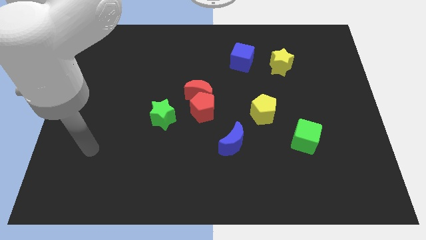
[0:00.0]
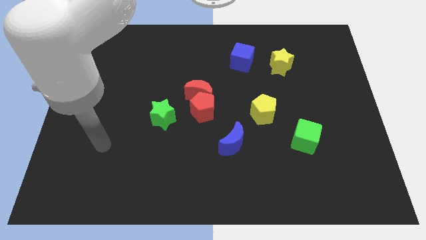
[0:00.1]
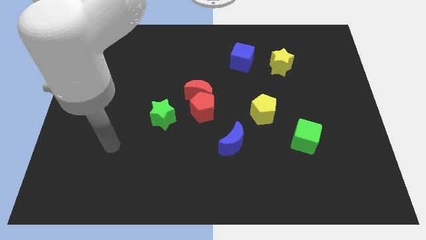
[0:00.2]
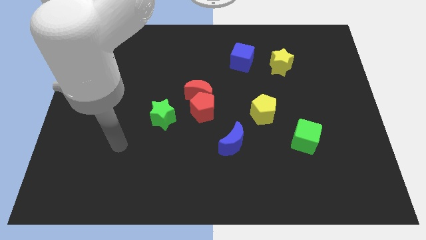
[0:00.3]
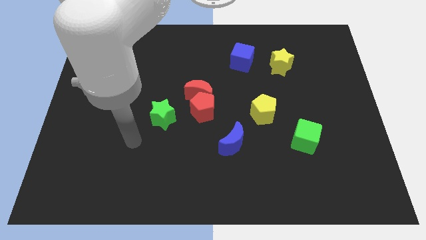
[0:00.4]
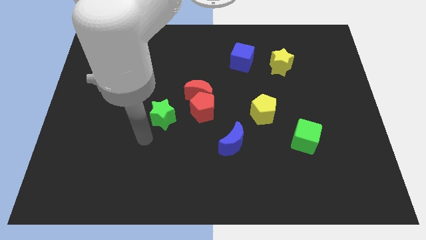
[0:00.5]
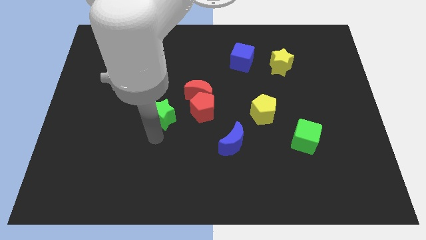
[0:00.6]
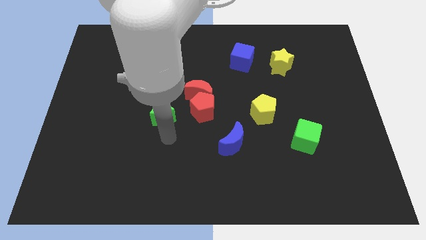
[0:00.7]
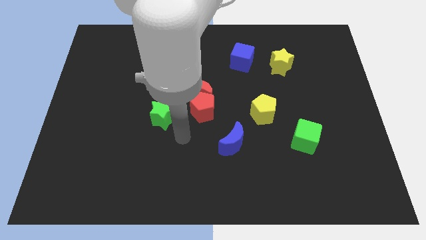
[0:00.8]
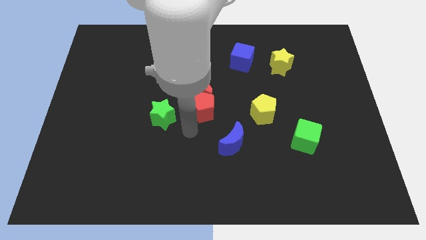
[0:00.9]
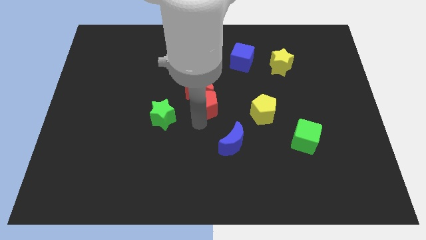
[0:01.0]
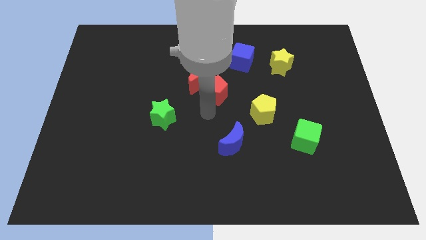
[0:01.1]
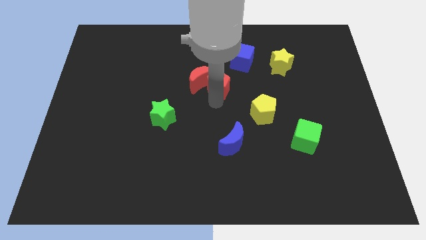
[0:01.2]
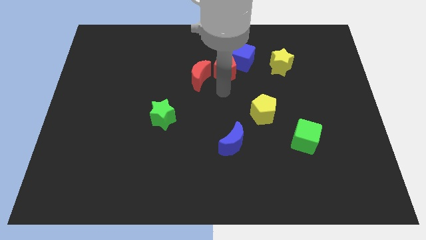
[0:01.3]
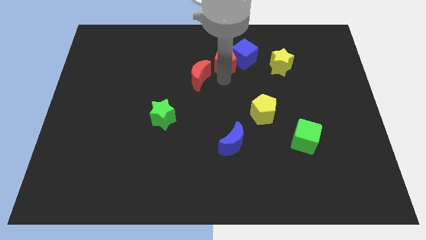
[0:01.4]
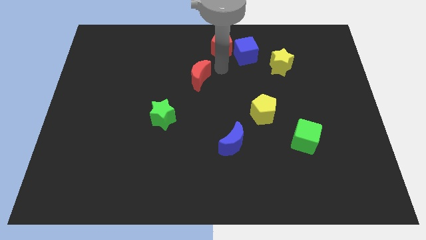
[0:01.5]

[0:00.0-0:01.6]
move the red moon away from the red pentagon

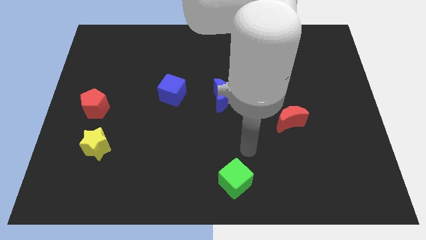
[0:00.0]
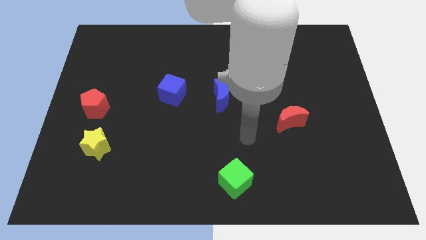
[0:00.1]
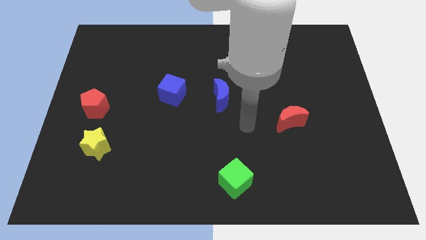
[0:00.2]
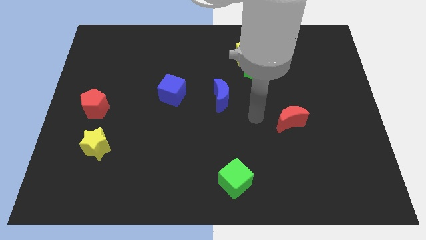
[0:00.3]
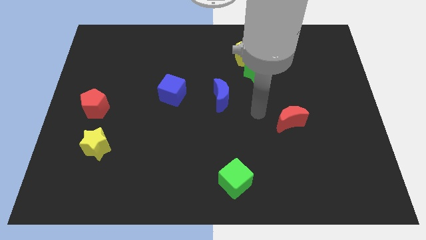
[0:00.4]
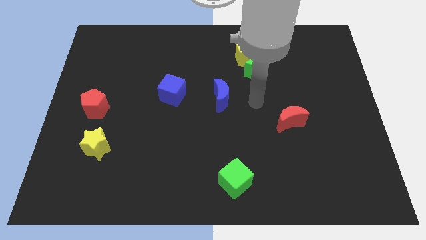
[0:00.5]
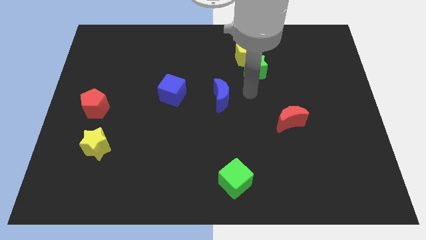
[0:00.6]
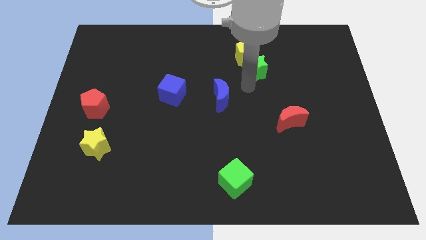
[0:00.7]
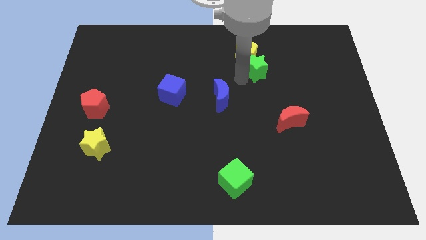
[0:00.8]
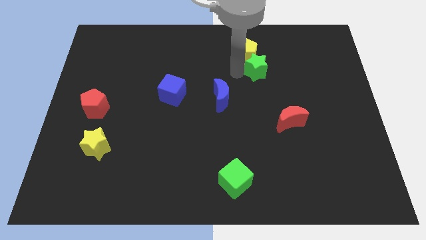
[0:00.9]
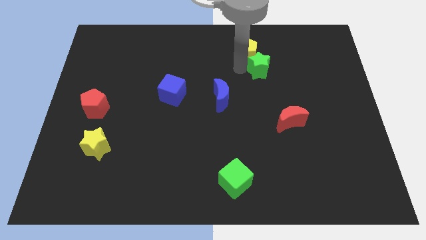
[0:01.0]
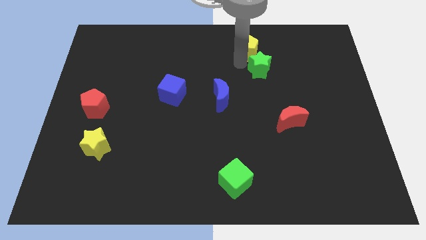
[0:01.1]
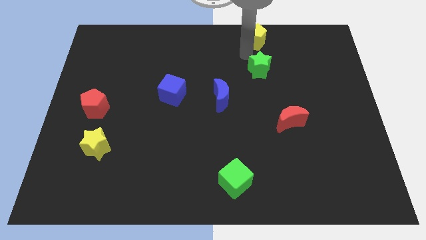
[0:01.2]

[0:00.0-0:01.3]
pull the green star apart from the yellow pentagon

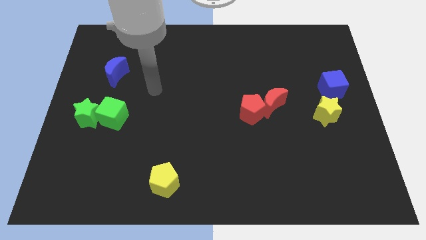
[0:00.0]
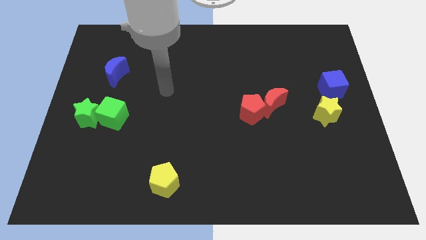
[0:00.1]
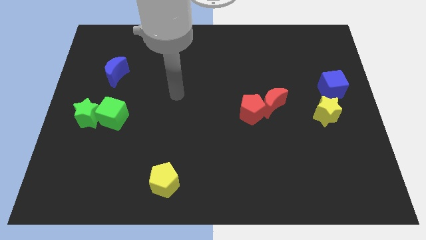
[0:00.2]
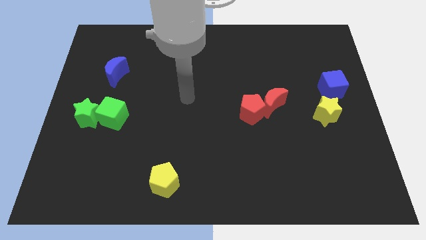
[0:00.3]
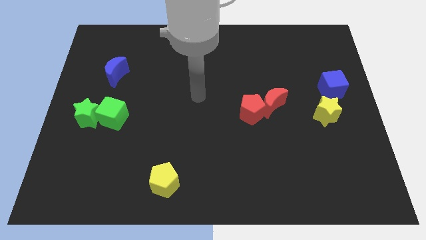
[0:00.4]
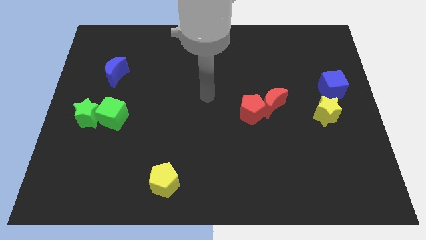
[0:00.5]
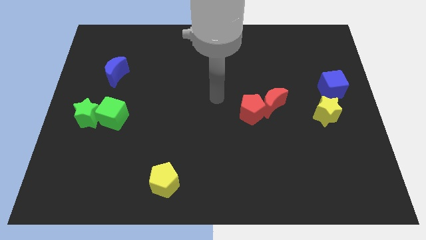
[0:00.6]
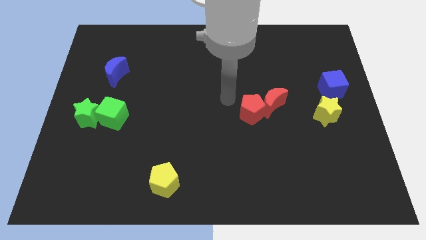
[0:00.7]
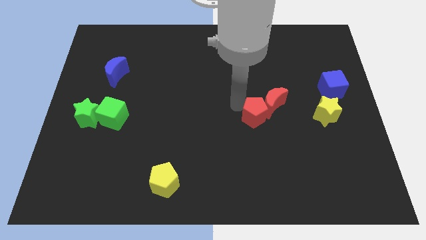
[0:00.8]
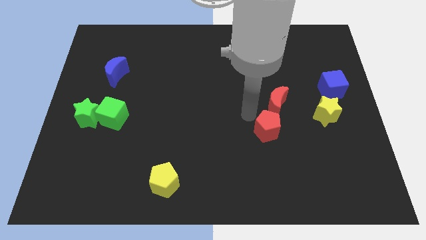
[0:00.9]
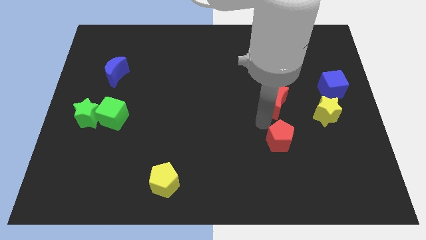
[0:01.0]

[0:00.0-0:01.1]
pull the red moon apart from the red pentagon

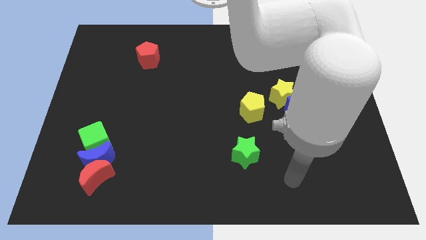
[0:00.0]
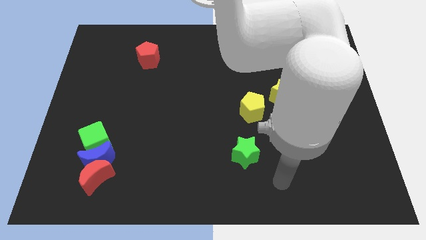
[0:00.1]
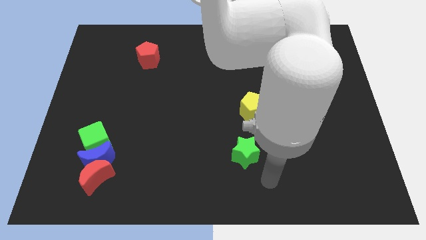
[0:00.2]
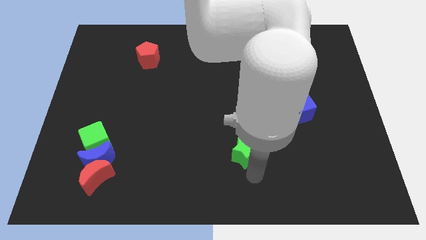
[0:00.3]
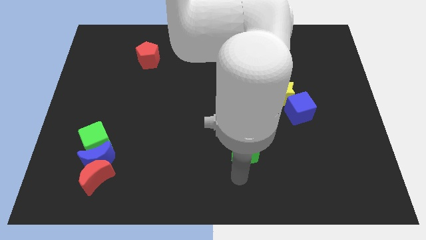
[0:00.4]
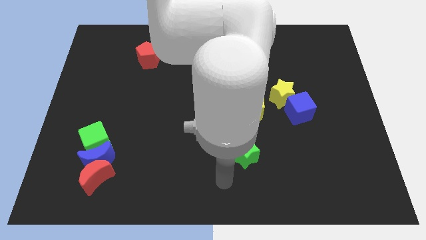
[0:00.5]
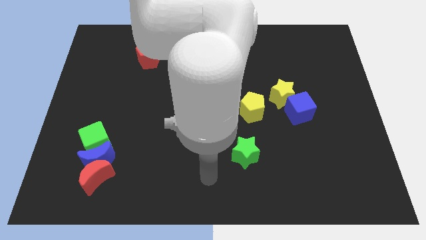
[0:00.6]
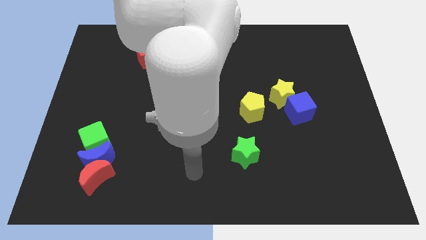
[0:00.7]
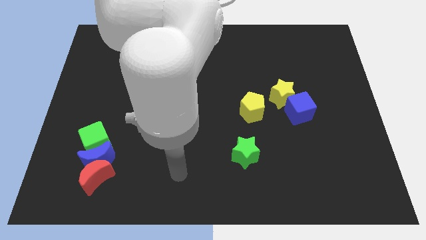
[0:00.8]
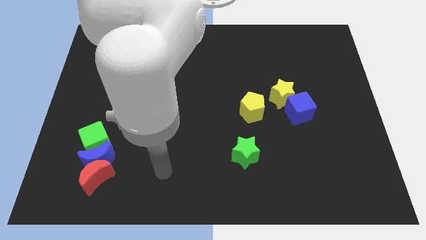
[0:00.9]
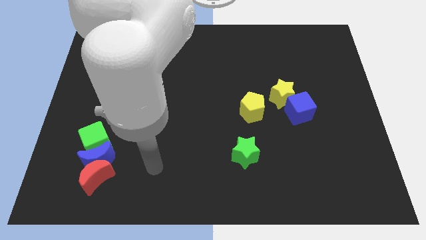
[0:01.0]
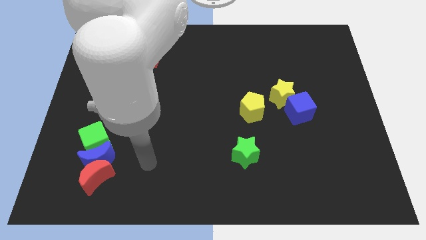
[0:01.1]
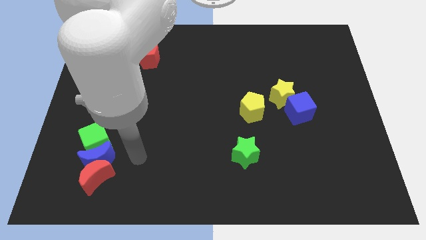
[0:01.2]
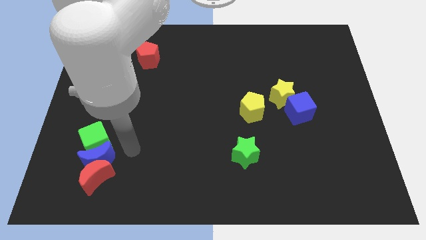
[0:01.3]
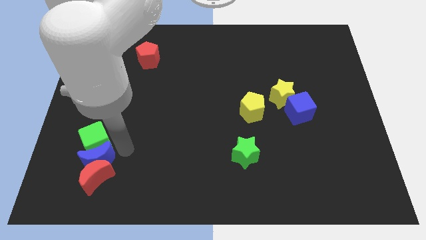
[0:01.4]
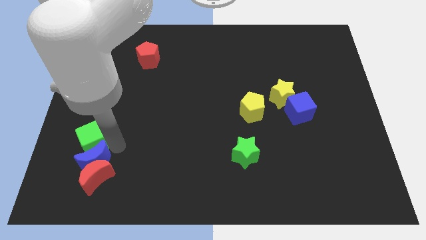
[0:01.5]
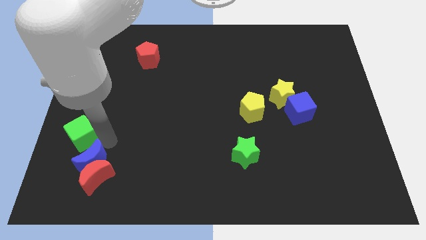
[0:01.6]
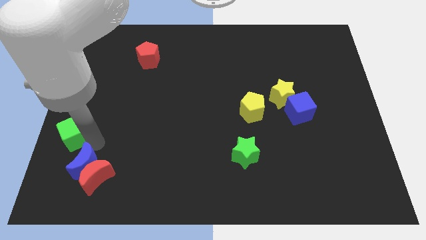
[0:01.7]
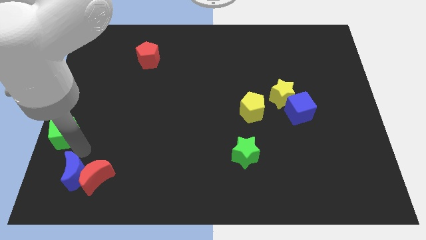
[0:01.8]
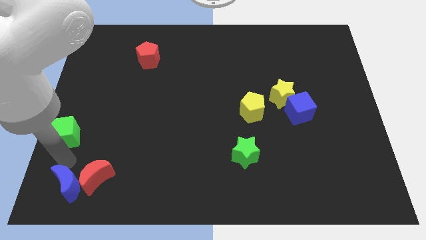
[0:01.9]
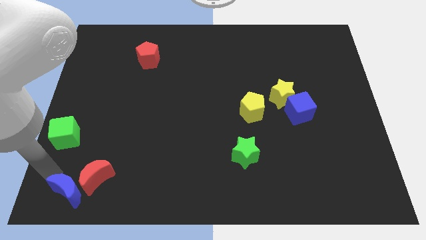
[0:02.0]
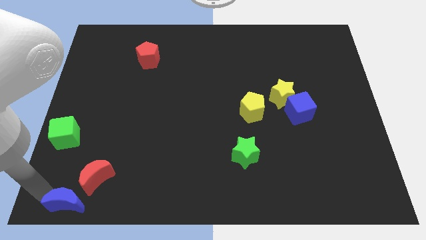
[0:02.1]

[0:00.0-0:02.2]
move the blue moon away from the red moon and green cube

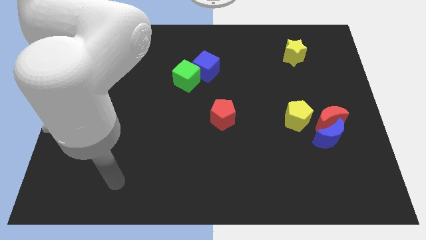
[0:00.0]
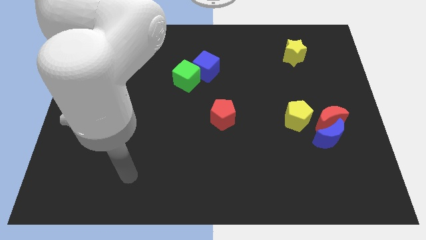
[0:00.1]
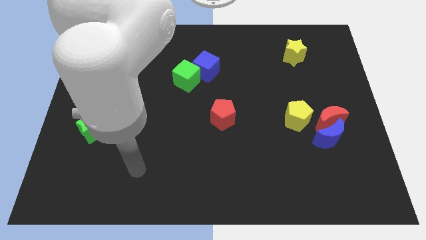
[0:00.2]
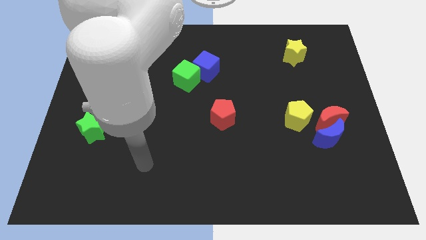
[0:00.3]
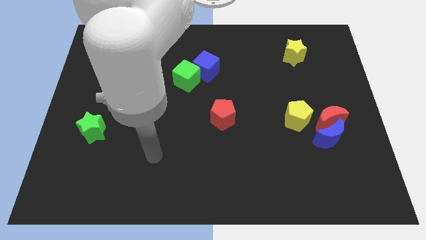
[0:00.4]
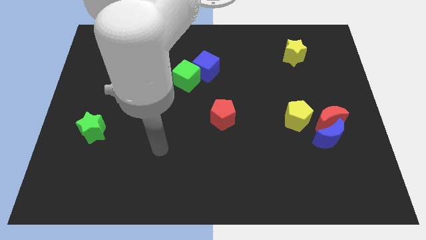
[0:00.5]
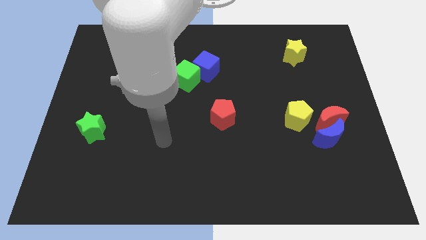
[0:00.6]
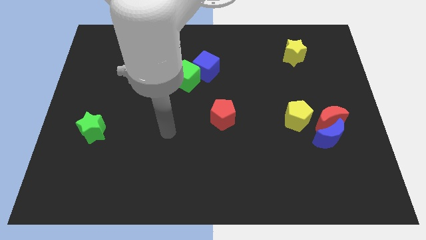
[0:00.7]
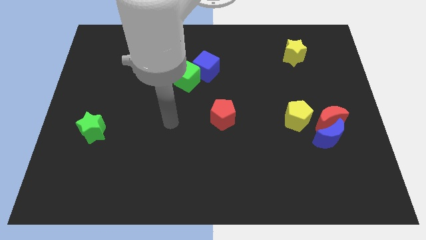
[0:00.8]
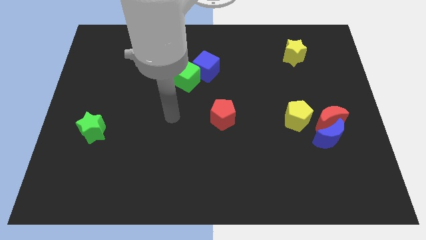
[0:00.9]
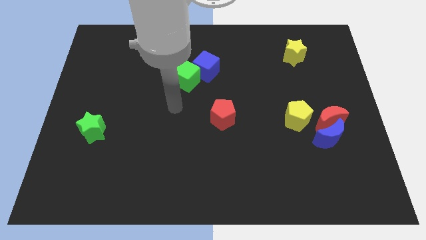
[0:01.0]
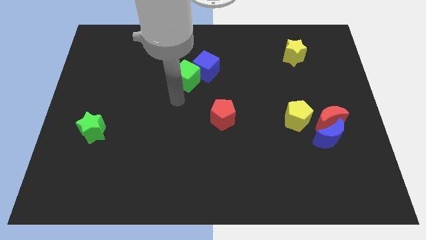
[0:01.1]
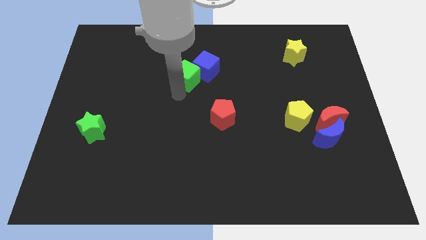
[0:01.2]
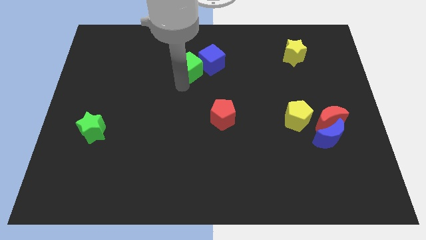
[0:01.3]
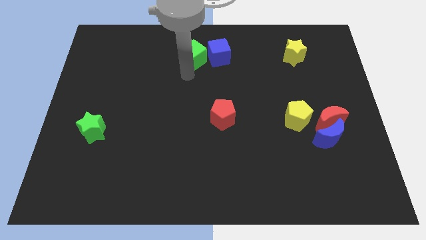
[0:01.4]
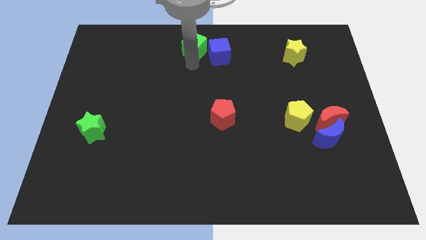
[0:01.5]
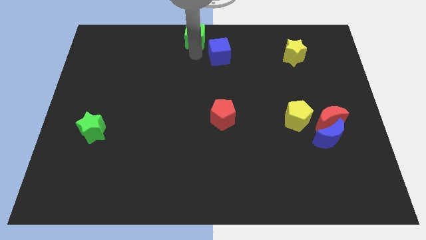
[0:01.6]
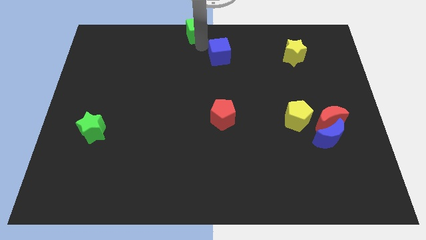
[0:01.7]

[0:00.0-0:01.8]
move the blue cube away from the green cube

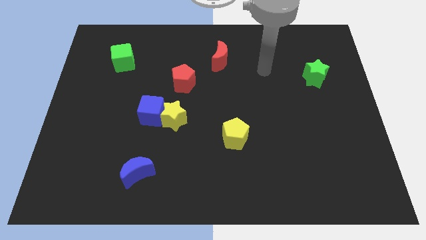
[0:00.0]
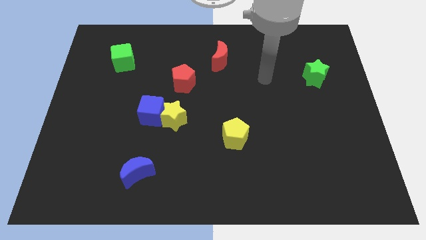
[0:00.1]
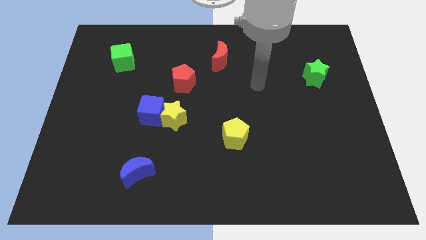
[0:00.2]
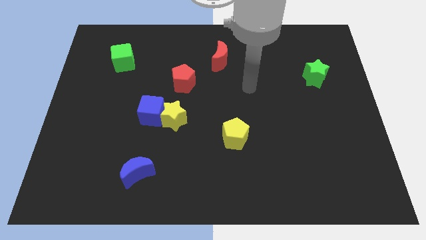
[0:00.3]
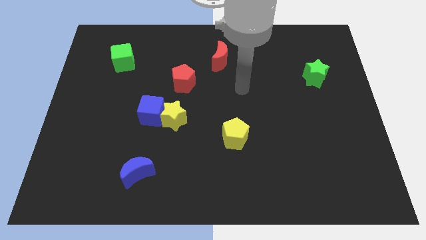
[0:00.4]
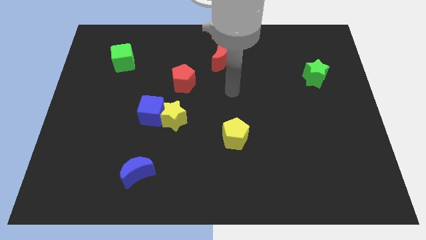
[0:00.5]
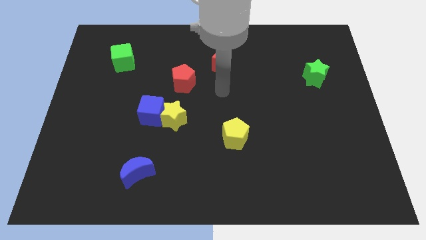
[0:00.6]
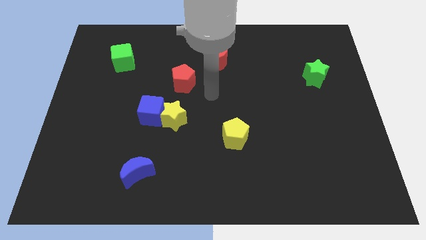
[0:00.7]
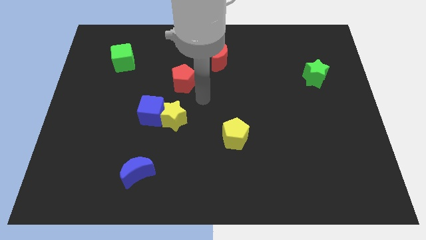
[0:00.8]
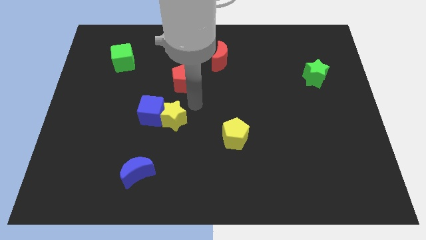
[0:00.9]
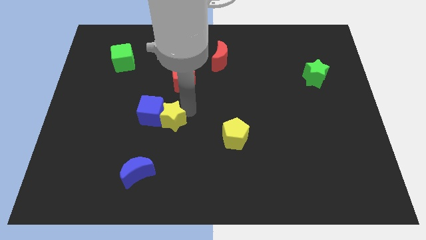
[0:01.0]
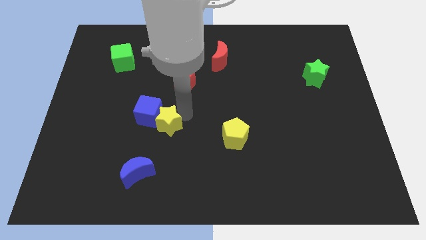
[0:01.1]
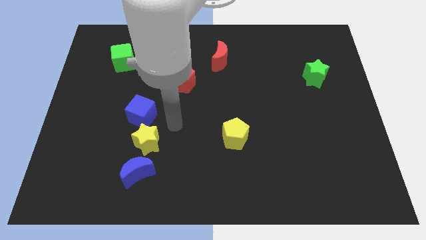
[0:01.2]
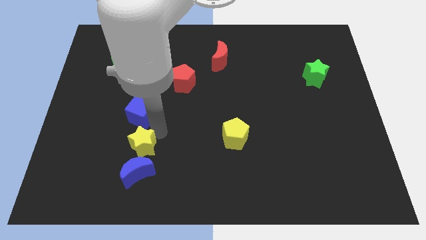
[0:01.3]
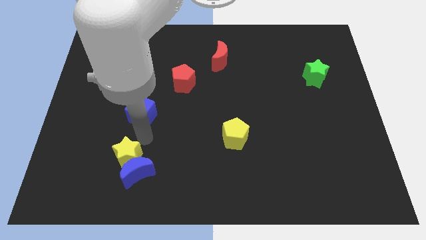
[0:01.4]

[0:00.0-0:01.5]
separate the blue cube from the yellow star
